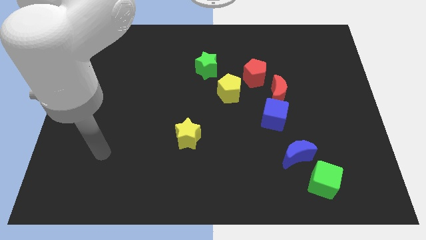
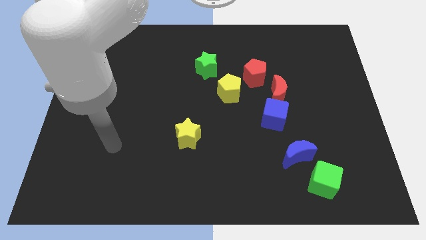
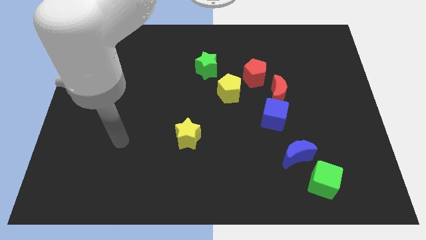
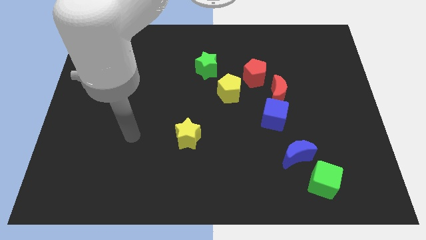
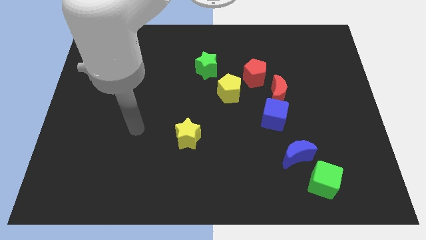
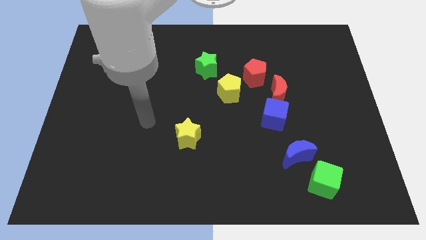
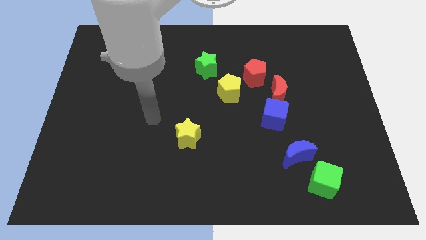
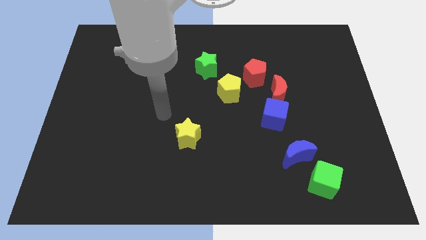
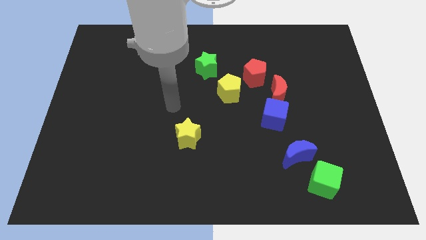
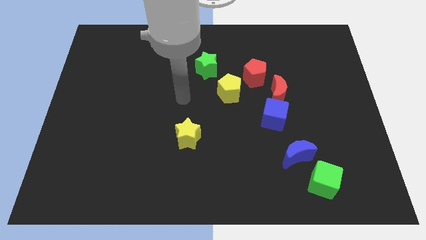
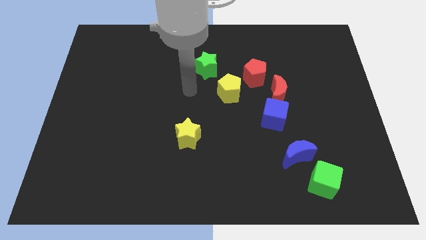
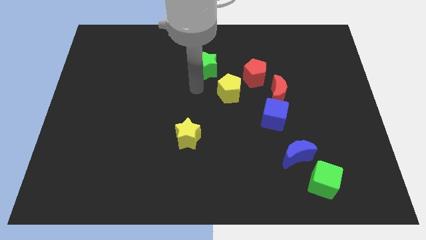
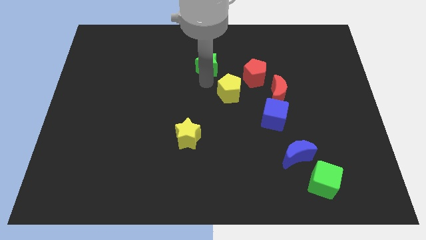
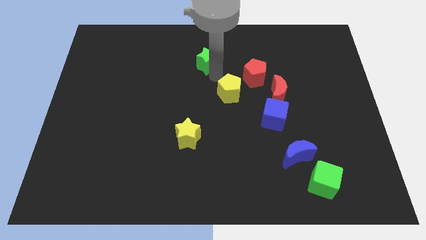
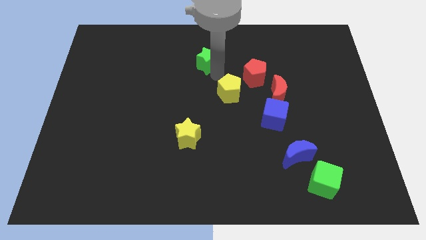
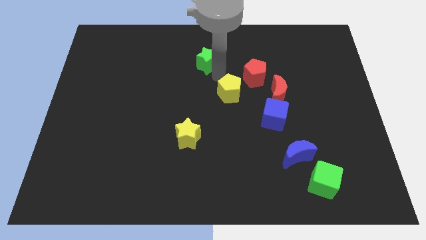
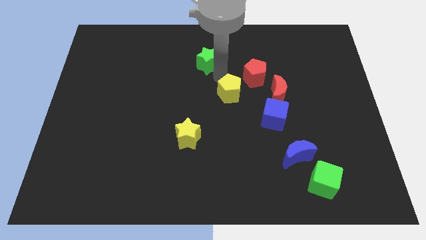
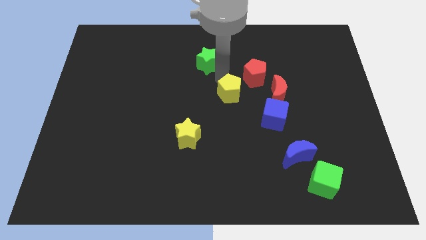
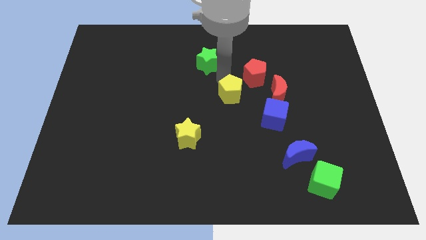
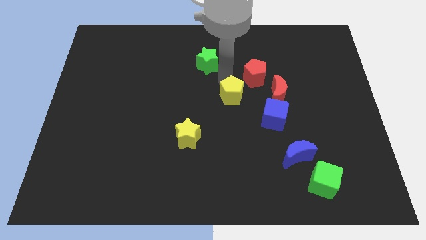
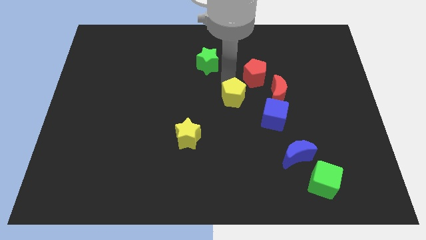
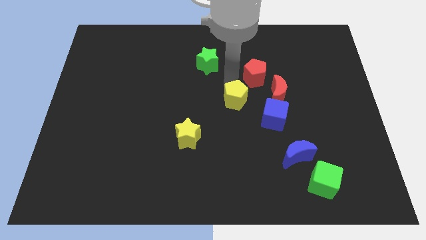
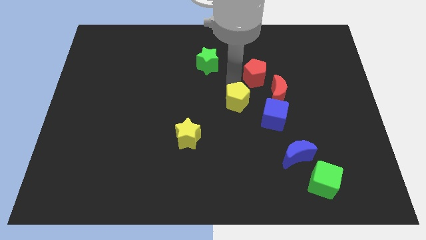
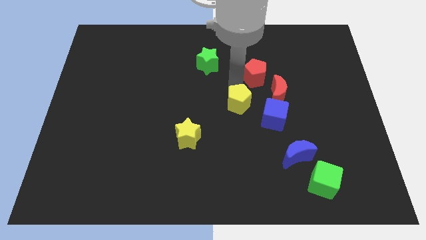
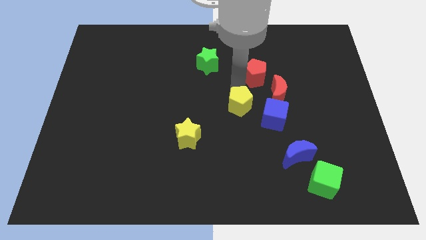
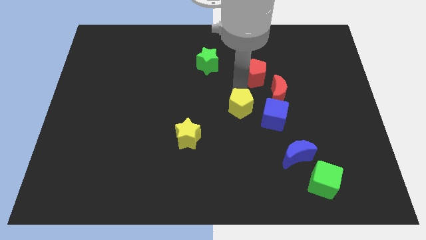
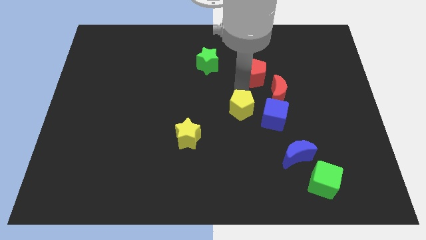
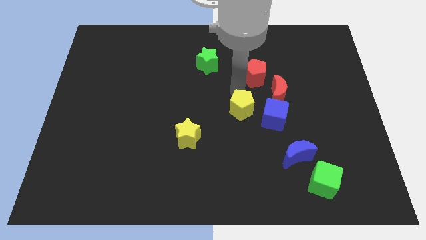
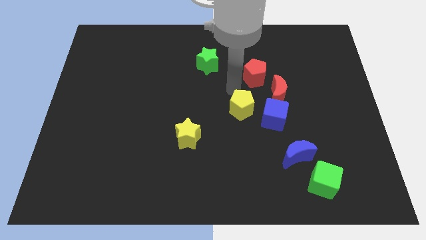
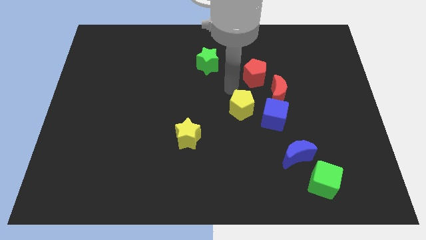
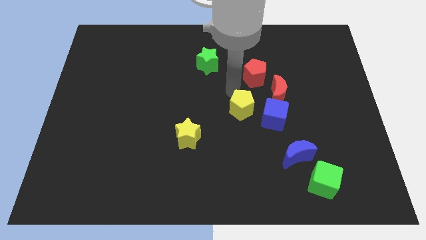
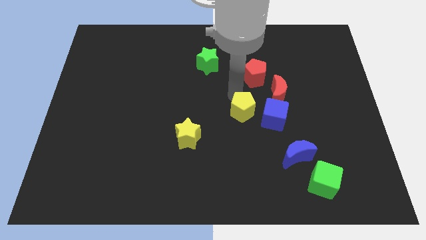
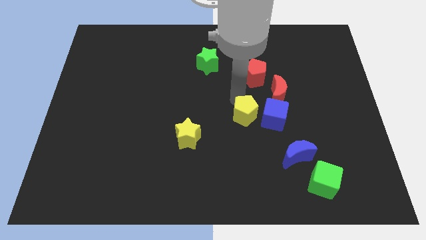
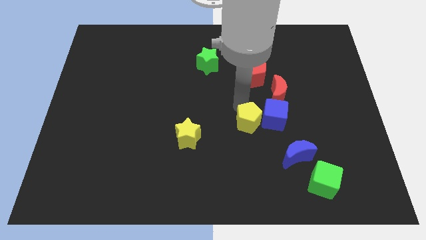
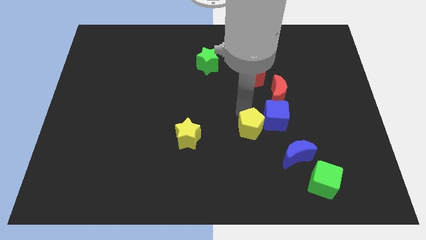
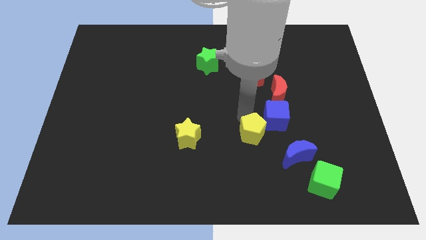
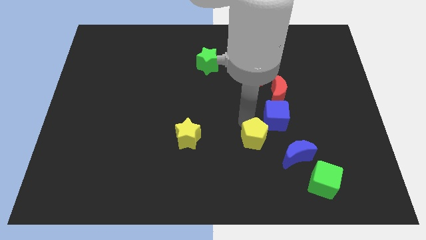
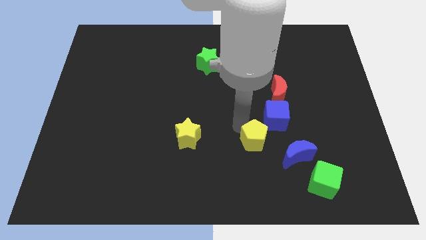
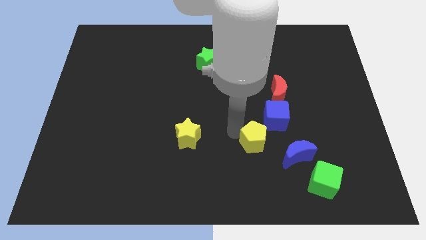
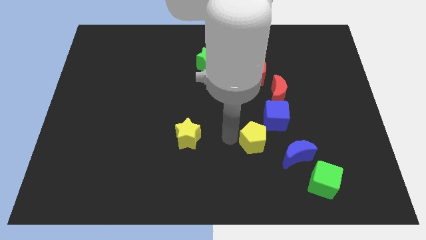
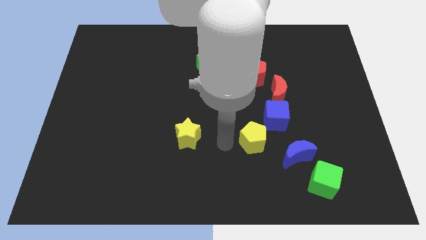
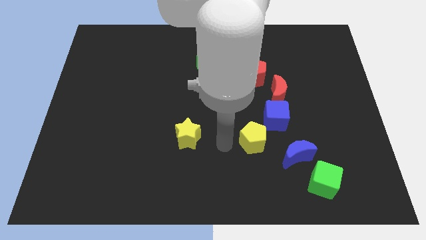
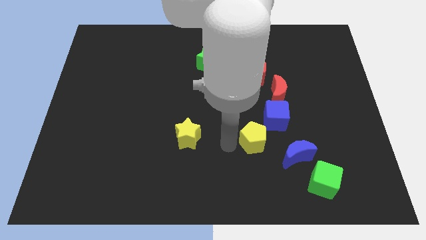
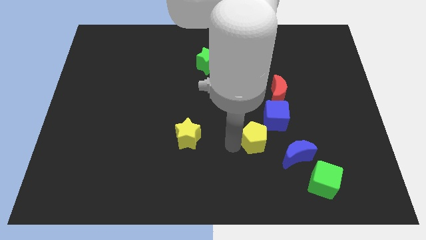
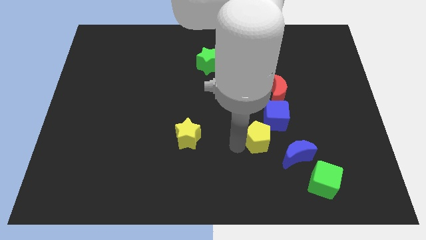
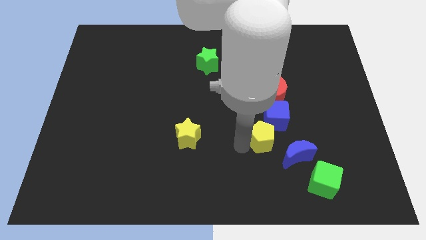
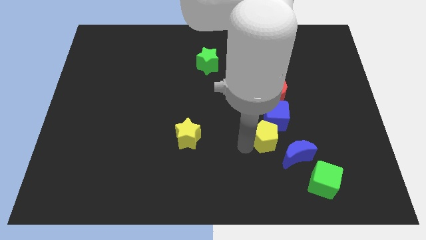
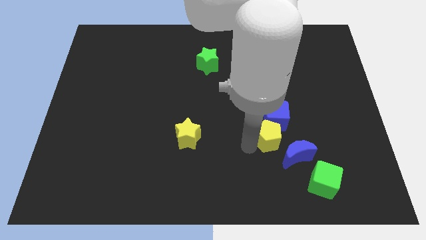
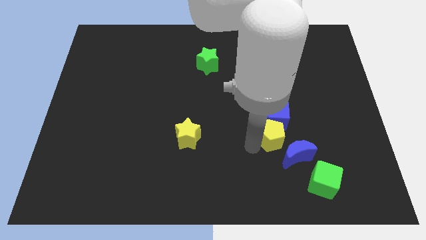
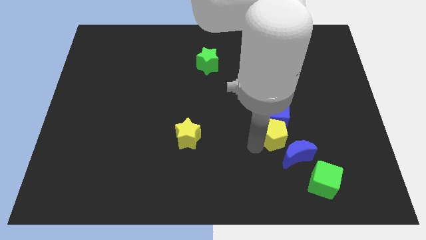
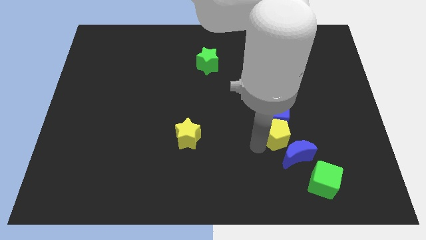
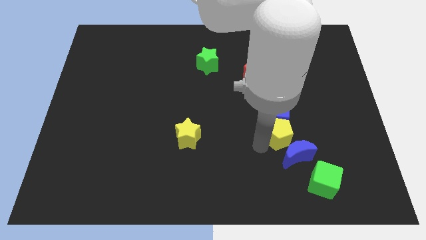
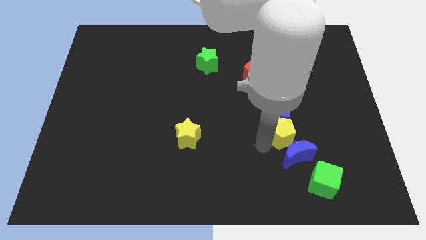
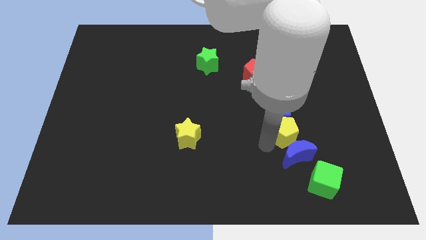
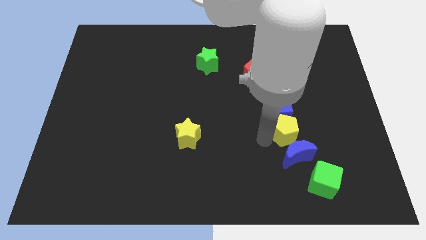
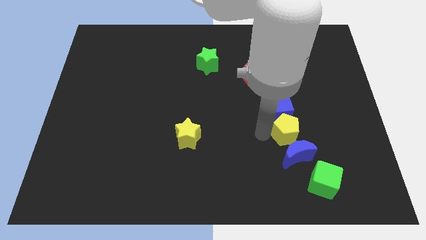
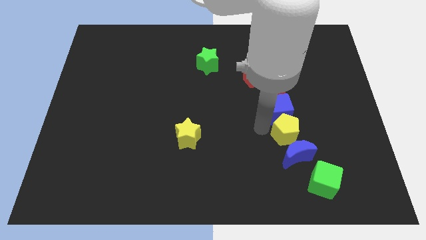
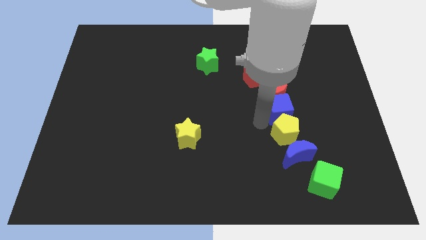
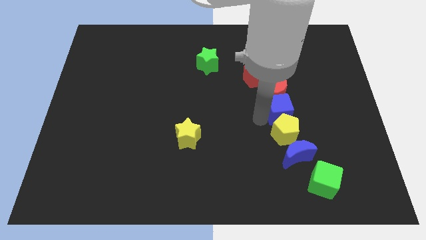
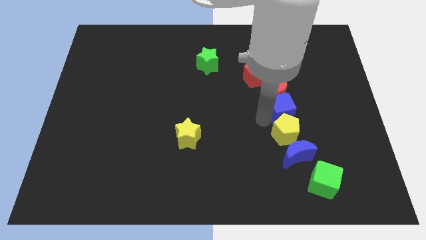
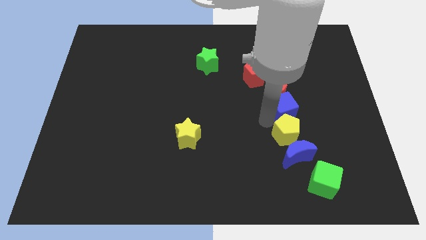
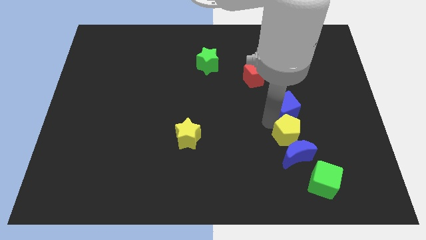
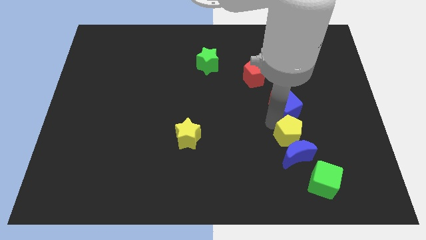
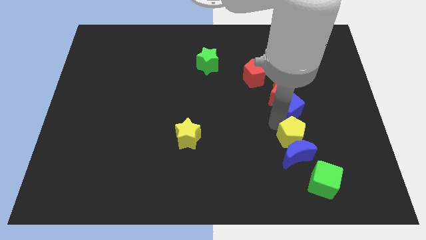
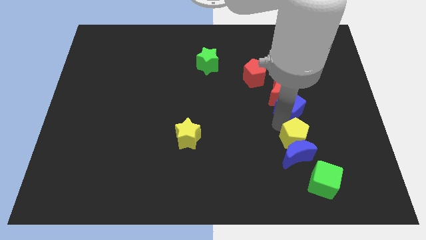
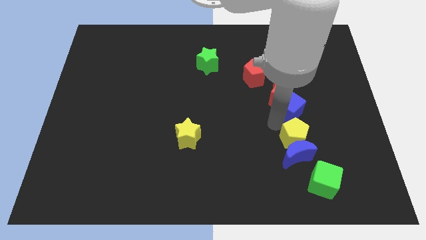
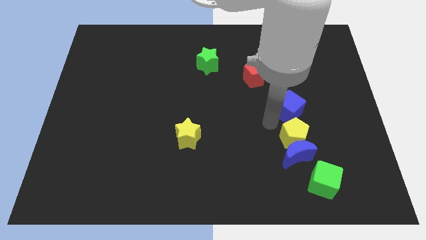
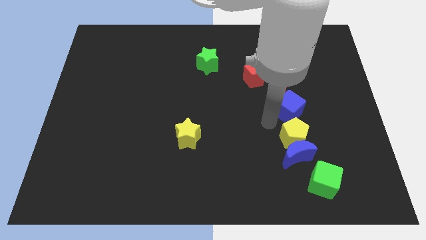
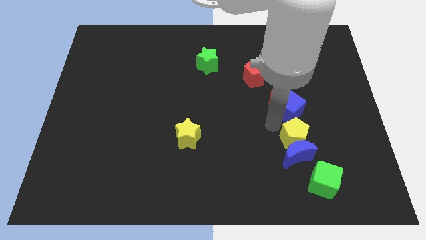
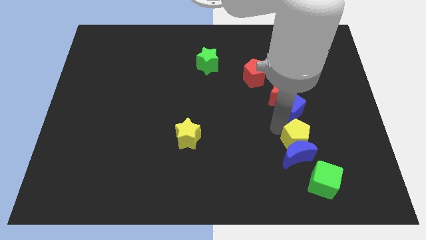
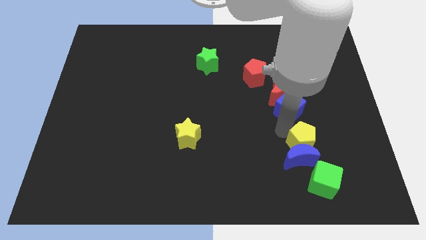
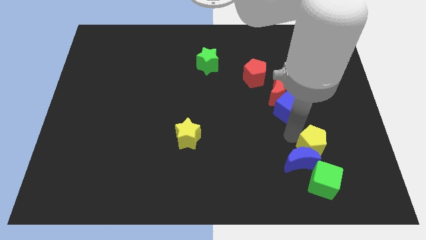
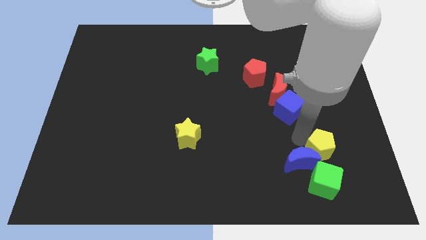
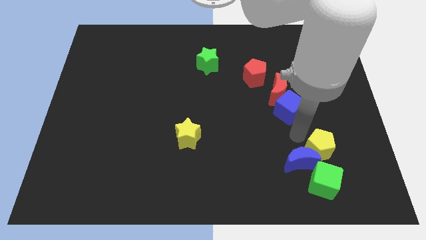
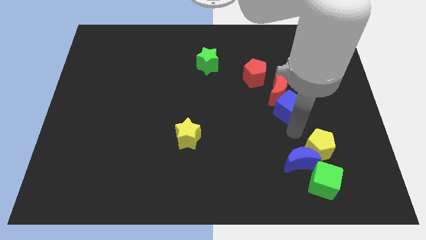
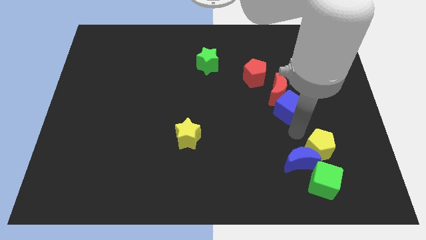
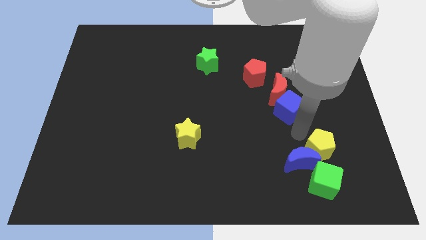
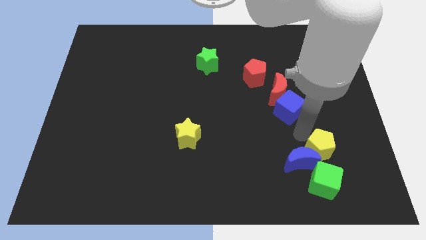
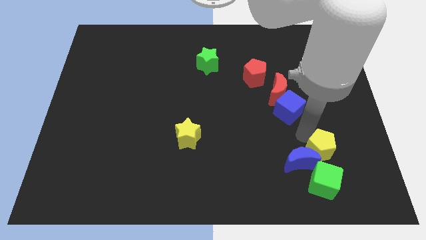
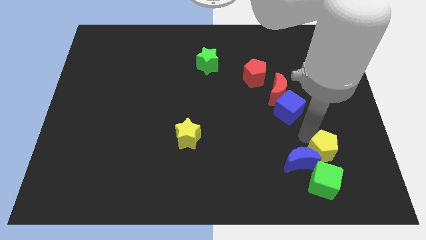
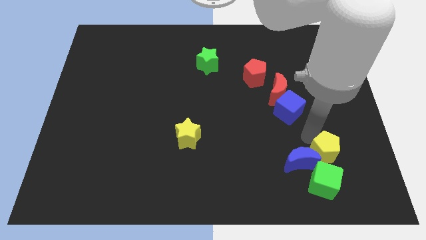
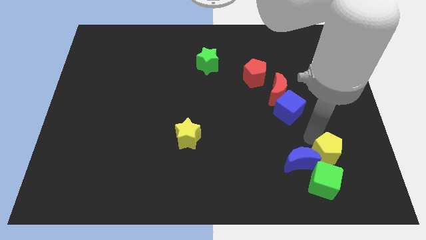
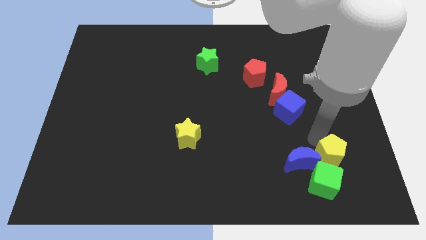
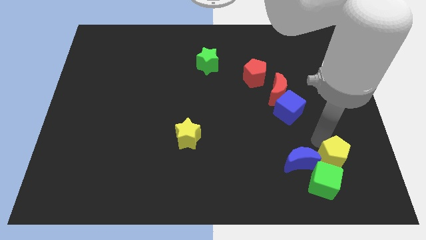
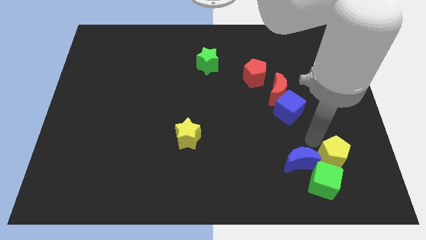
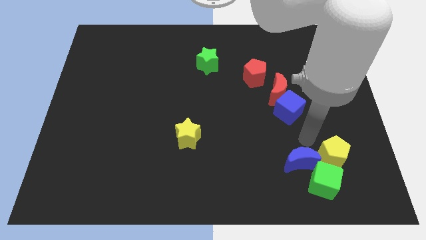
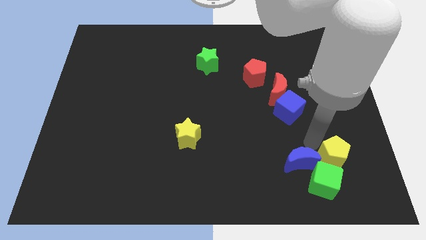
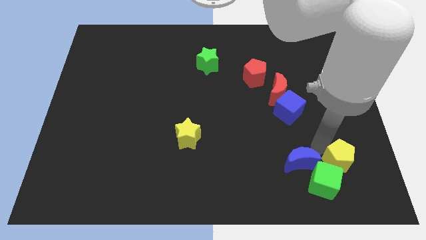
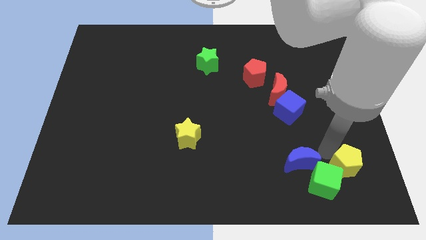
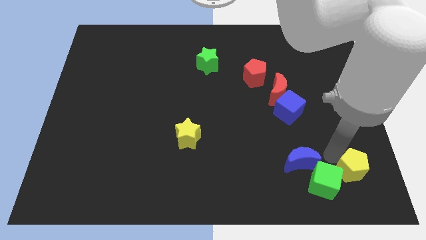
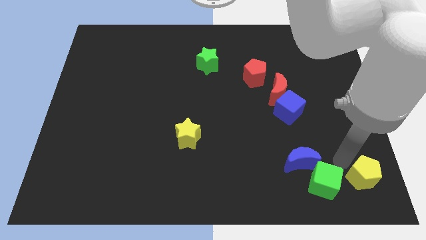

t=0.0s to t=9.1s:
push the yellow pentagon to the lower right corner
